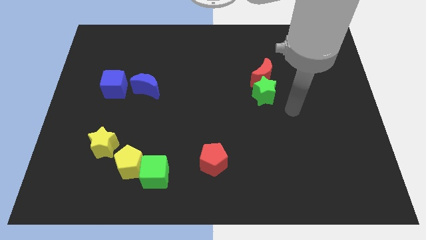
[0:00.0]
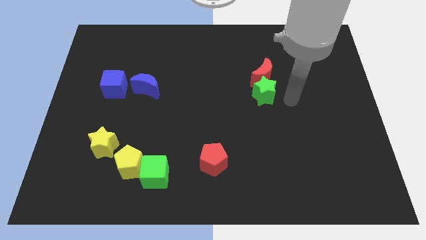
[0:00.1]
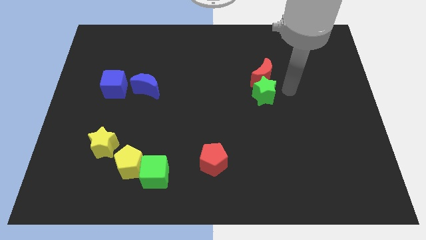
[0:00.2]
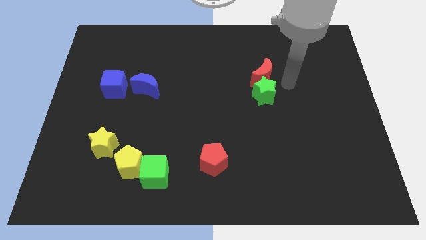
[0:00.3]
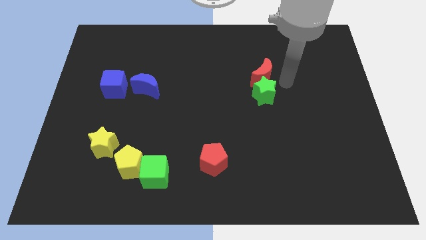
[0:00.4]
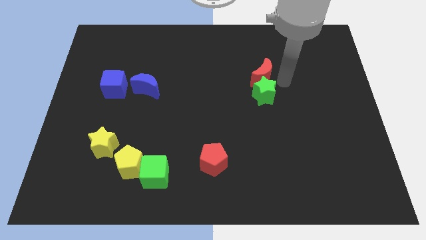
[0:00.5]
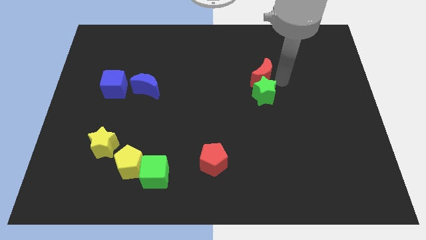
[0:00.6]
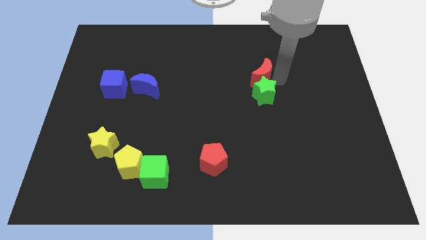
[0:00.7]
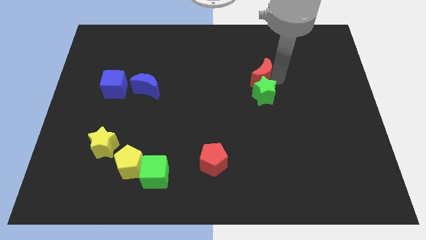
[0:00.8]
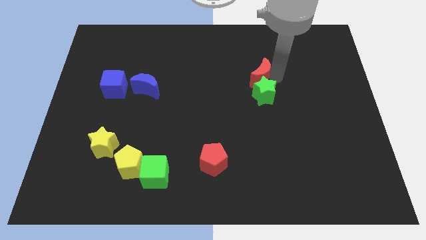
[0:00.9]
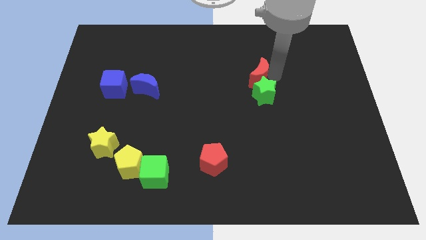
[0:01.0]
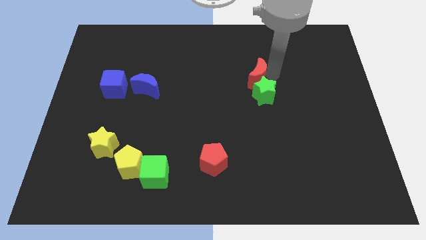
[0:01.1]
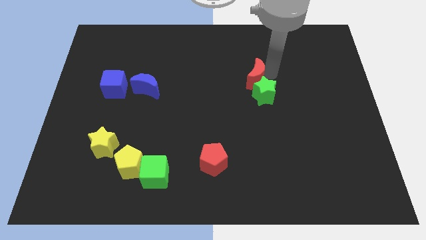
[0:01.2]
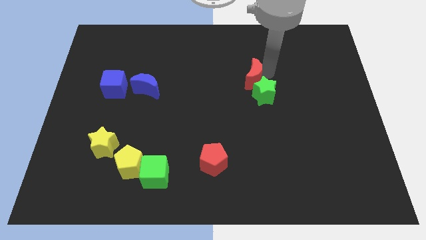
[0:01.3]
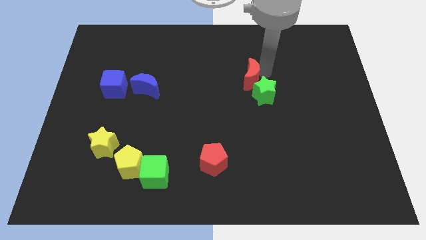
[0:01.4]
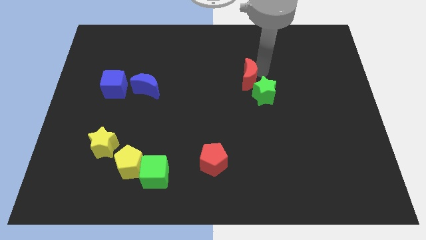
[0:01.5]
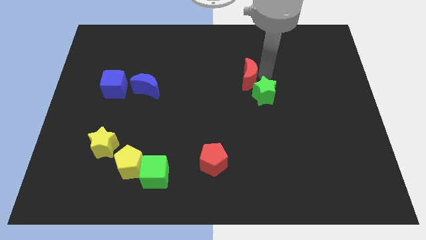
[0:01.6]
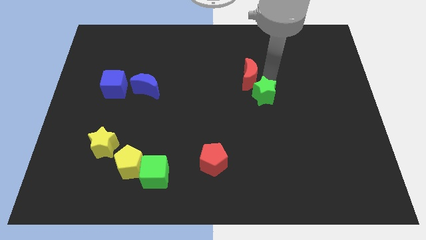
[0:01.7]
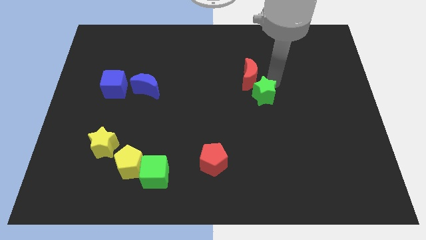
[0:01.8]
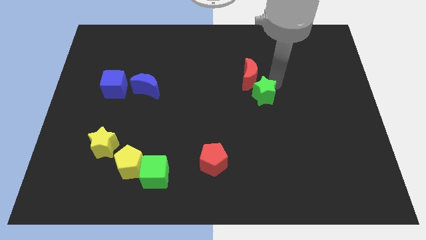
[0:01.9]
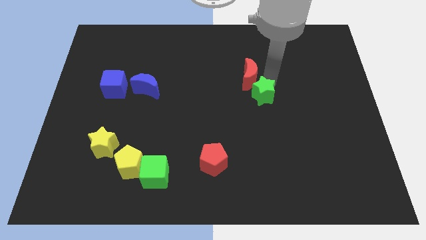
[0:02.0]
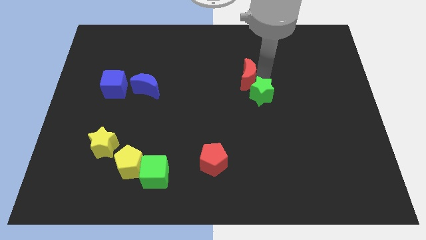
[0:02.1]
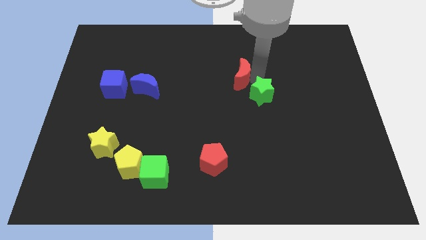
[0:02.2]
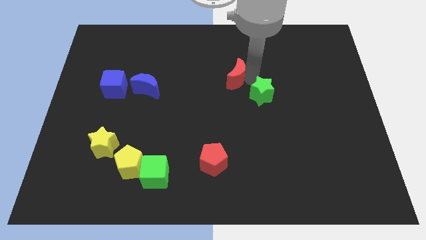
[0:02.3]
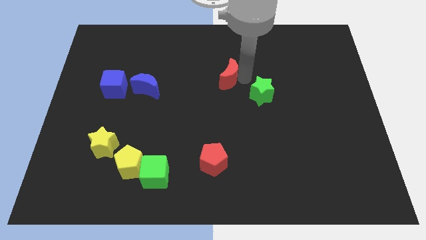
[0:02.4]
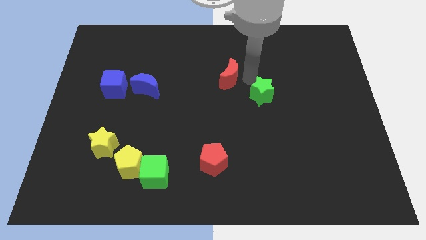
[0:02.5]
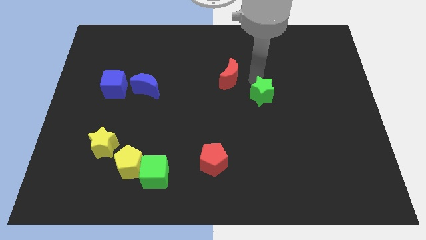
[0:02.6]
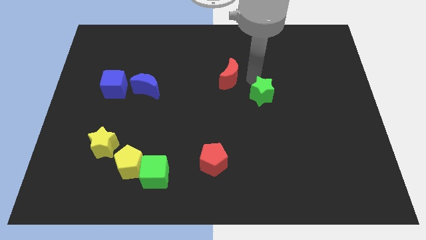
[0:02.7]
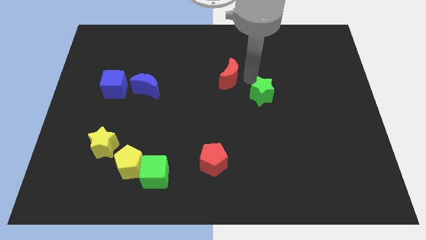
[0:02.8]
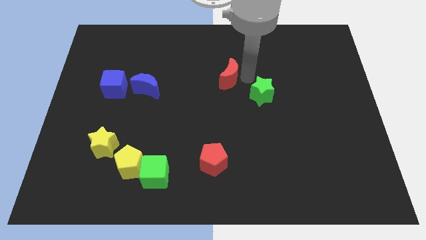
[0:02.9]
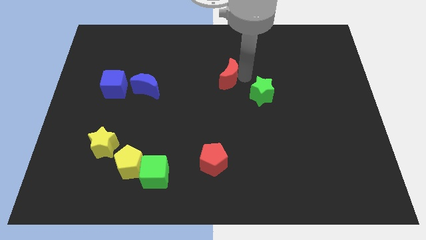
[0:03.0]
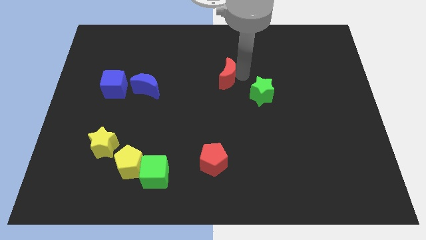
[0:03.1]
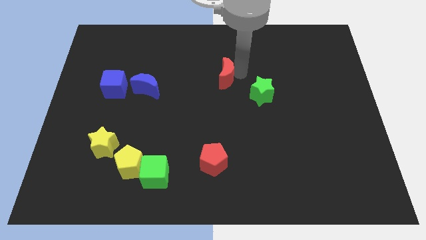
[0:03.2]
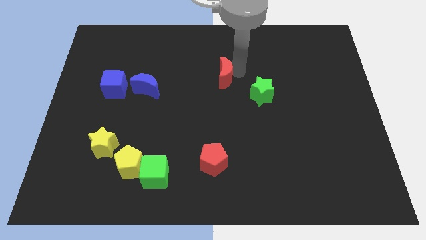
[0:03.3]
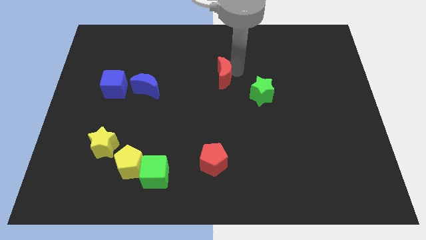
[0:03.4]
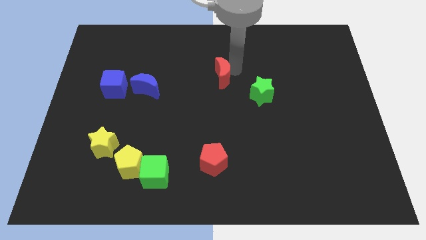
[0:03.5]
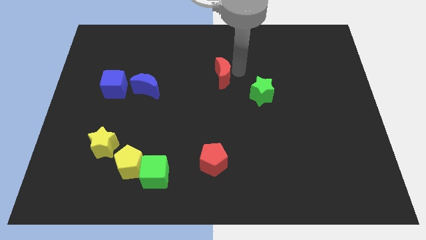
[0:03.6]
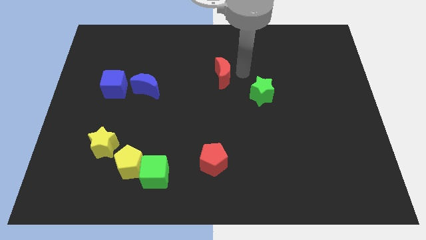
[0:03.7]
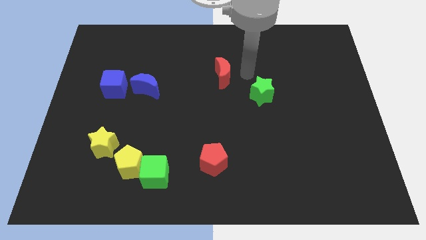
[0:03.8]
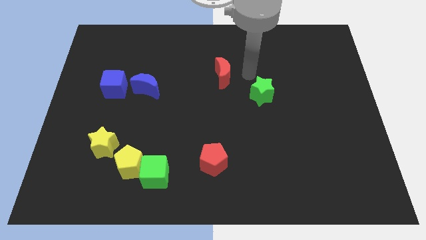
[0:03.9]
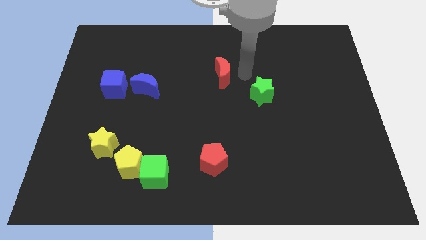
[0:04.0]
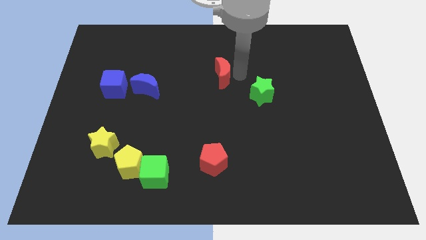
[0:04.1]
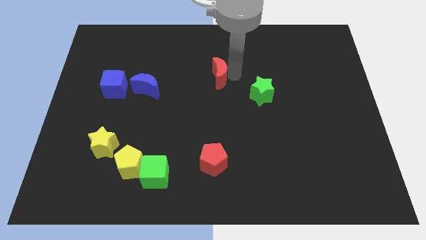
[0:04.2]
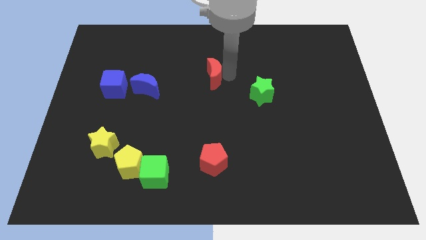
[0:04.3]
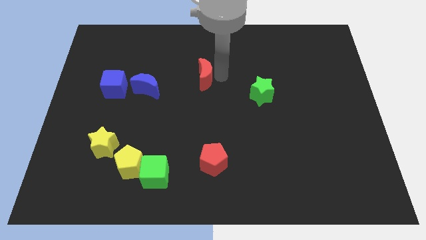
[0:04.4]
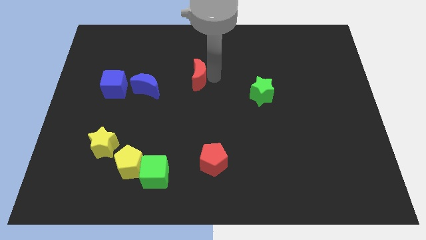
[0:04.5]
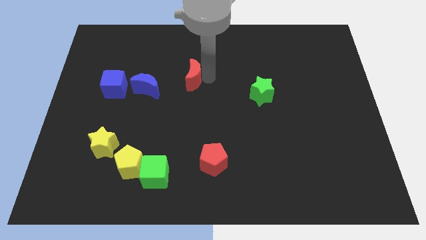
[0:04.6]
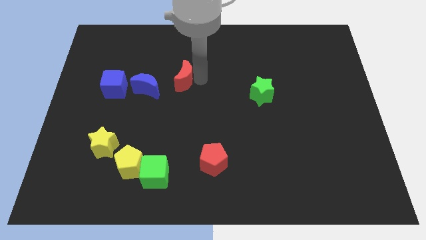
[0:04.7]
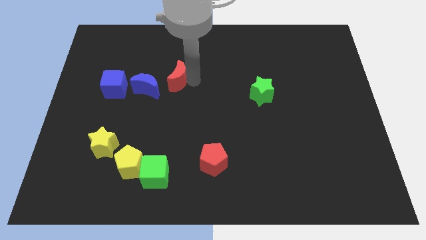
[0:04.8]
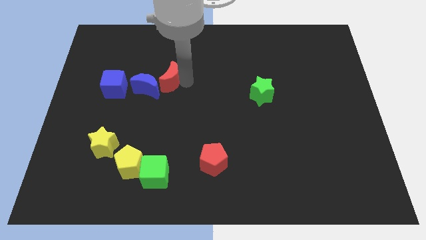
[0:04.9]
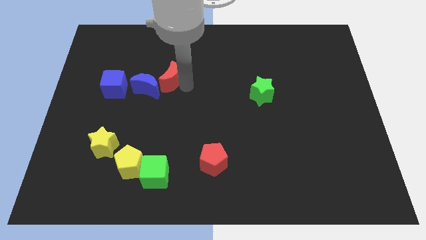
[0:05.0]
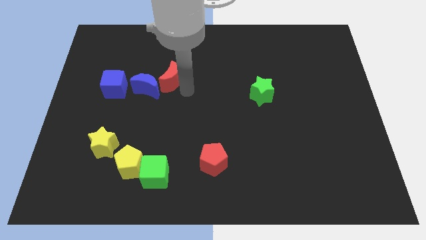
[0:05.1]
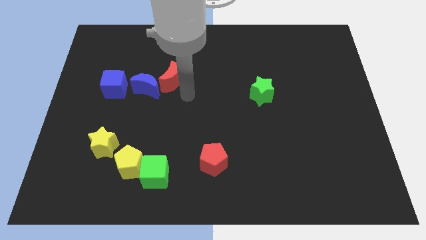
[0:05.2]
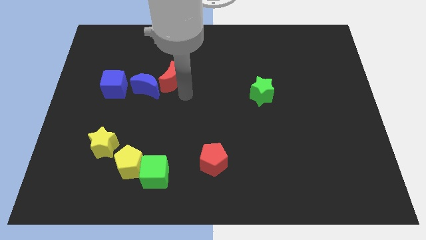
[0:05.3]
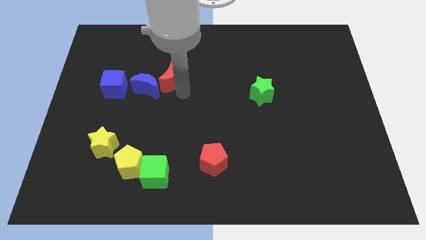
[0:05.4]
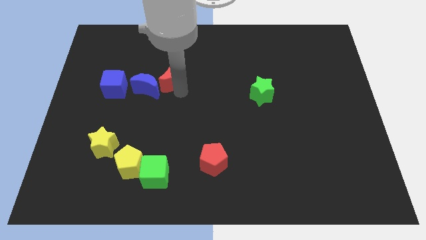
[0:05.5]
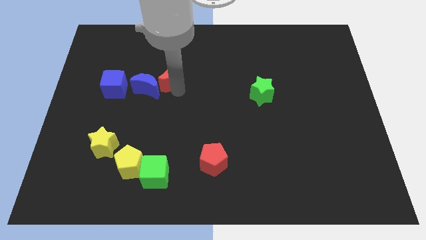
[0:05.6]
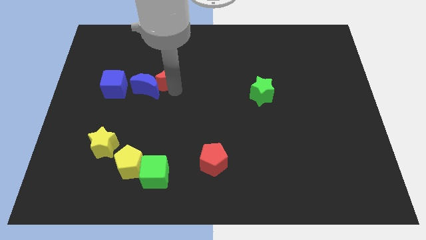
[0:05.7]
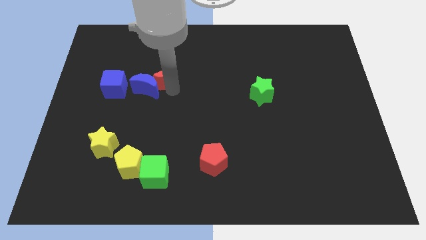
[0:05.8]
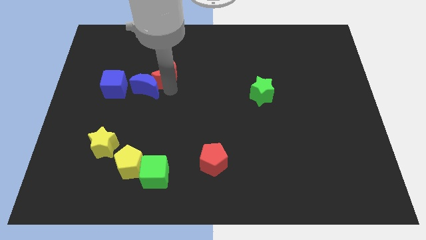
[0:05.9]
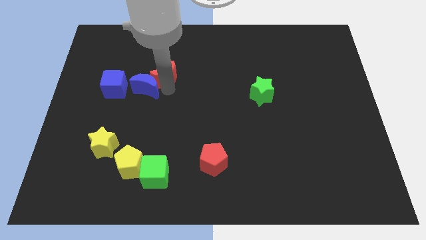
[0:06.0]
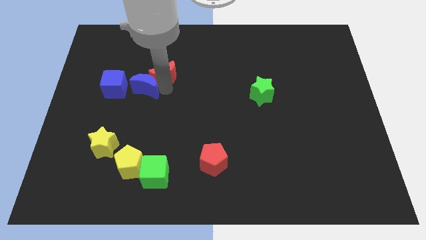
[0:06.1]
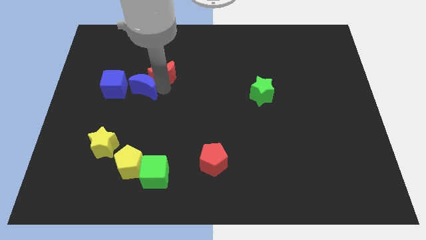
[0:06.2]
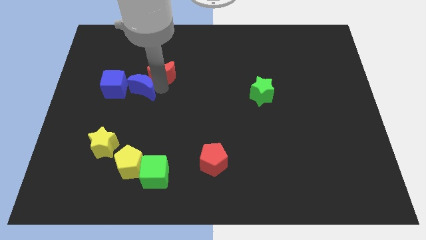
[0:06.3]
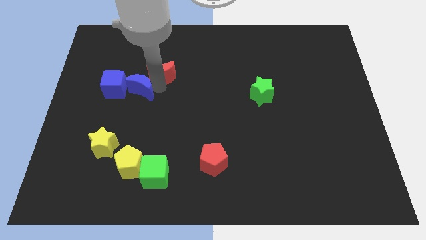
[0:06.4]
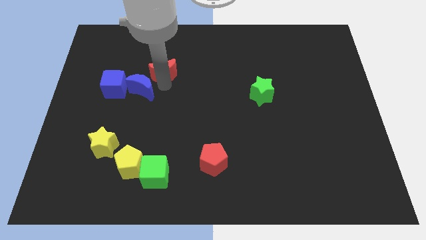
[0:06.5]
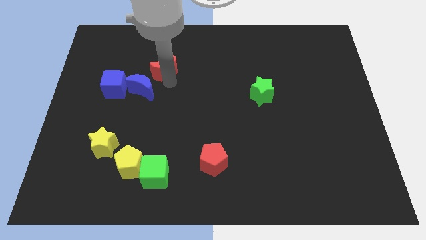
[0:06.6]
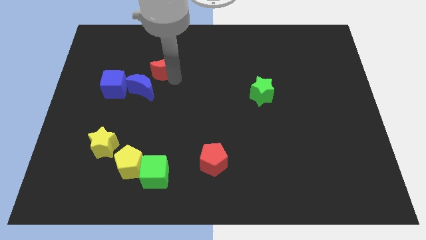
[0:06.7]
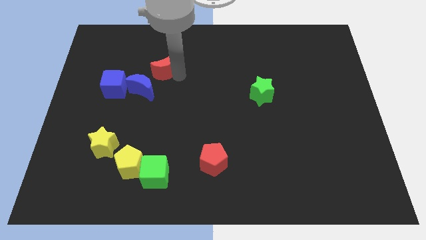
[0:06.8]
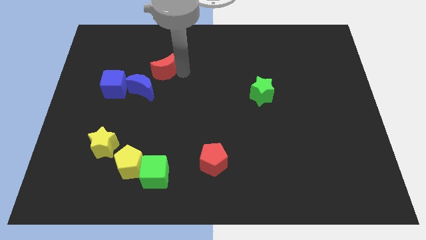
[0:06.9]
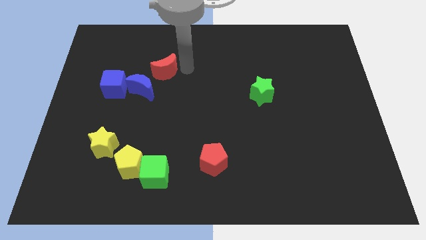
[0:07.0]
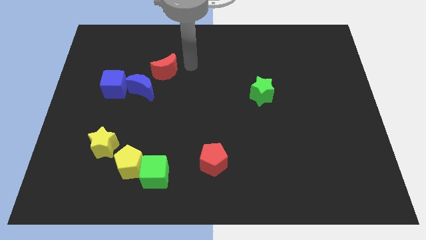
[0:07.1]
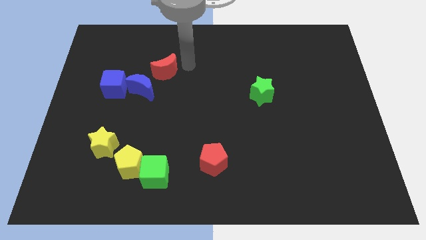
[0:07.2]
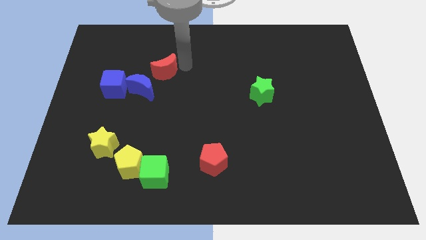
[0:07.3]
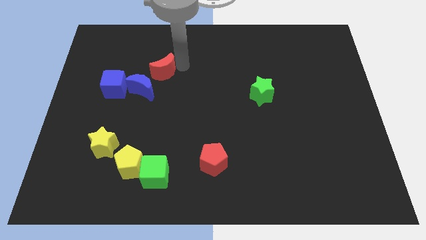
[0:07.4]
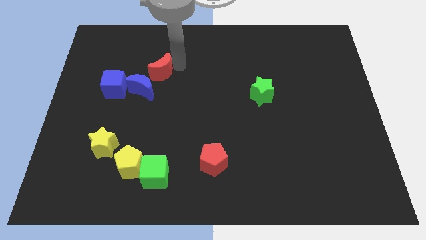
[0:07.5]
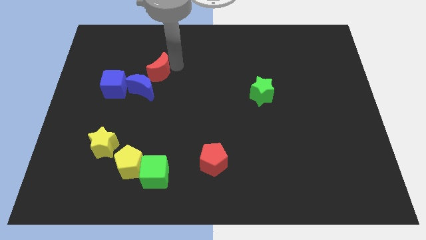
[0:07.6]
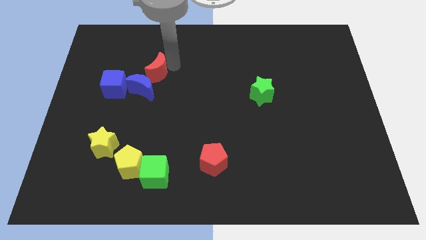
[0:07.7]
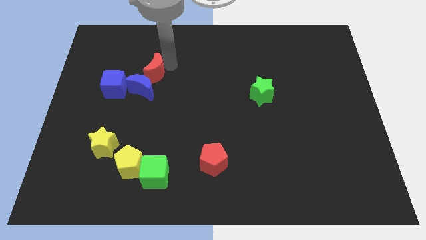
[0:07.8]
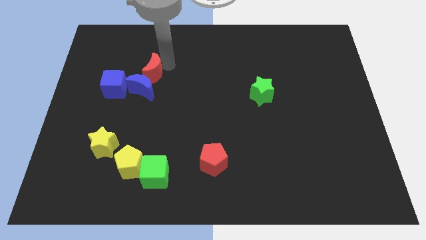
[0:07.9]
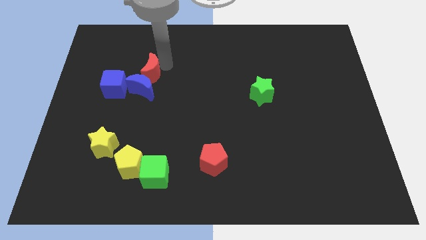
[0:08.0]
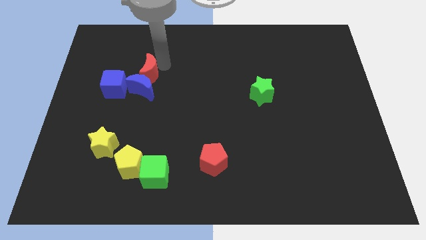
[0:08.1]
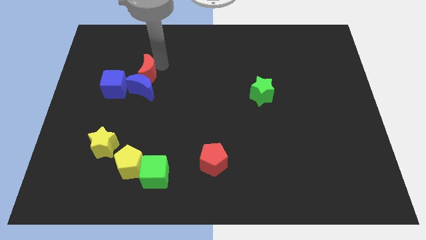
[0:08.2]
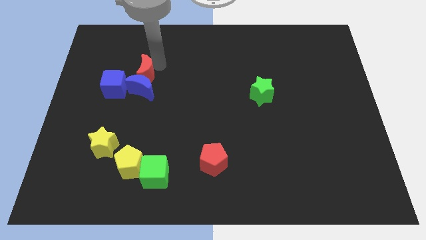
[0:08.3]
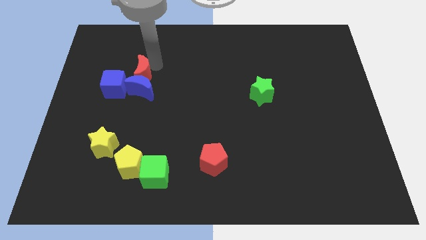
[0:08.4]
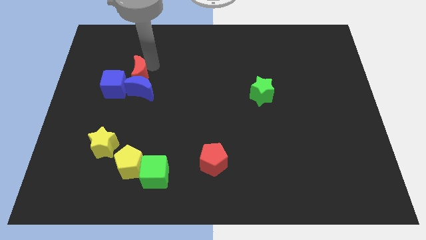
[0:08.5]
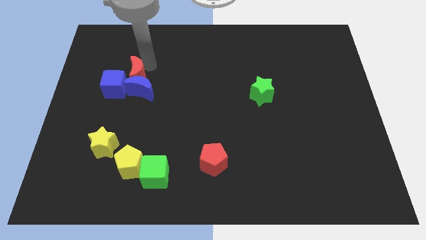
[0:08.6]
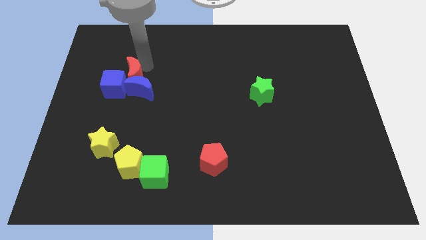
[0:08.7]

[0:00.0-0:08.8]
push the red moon close to the blue cube
